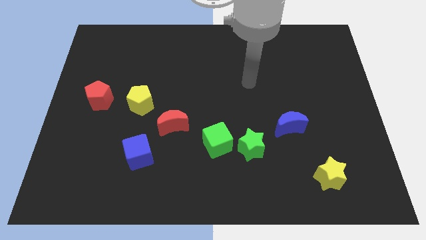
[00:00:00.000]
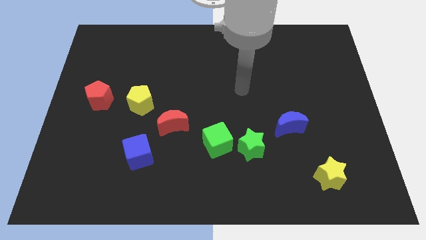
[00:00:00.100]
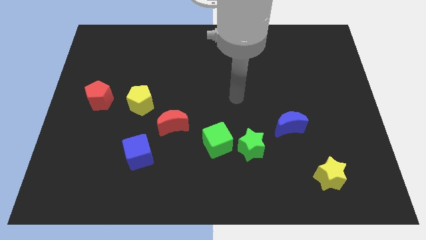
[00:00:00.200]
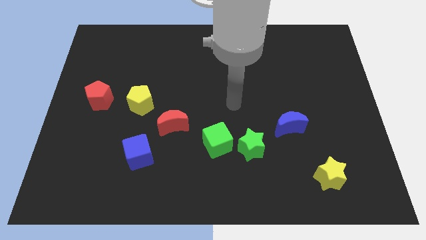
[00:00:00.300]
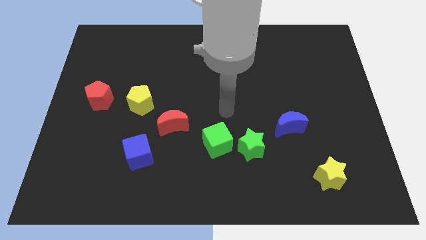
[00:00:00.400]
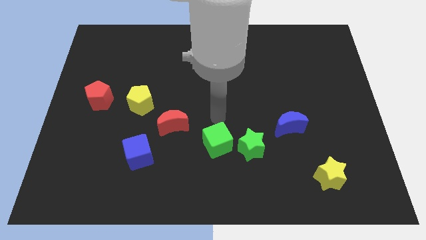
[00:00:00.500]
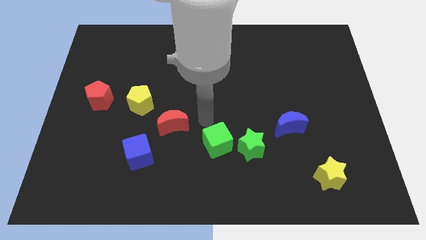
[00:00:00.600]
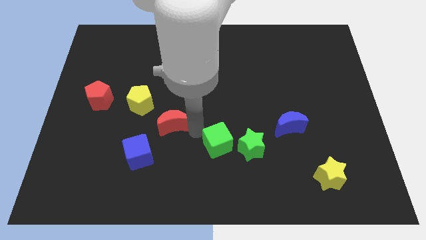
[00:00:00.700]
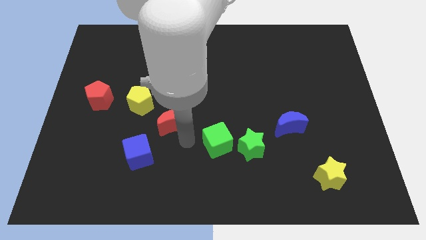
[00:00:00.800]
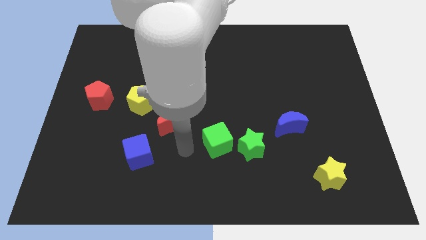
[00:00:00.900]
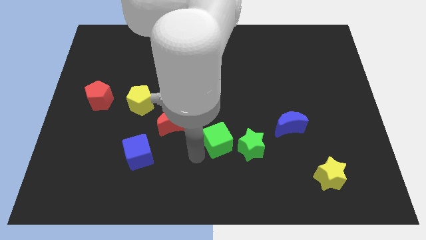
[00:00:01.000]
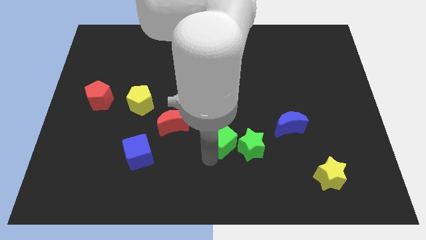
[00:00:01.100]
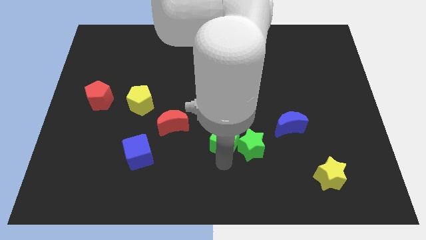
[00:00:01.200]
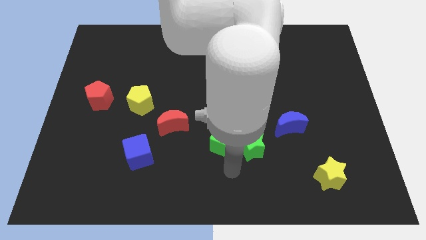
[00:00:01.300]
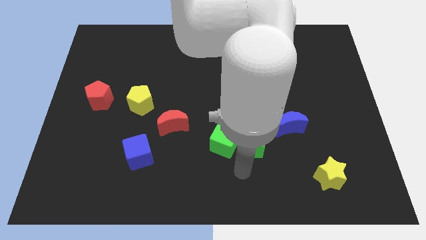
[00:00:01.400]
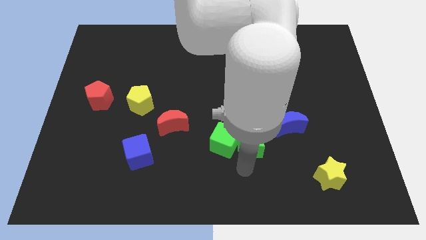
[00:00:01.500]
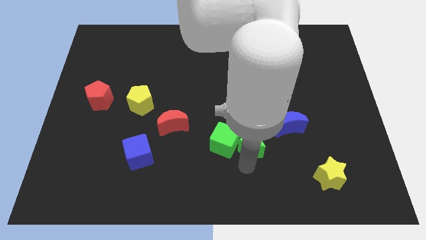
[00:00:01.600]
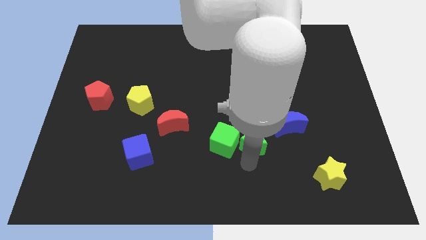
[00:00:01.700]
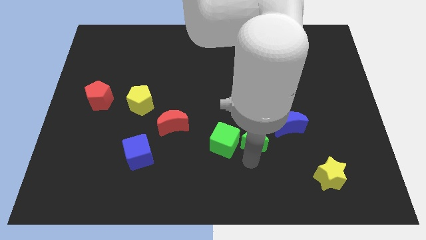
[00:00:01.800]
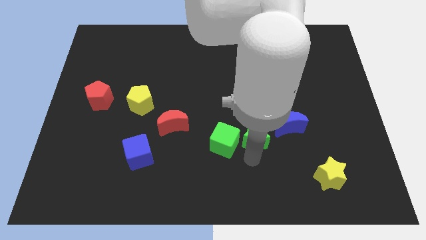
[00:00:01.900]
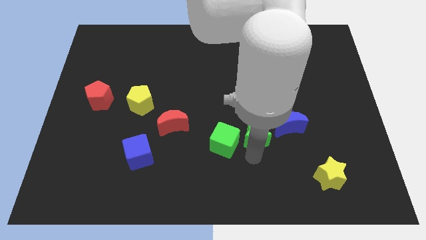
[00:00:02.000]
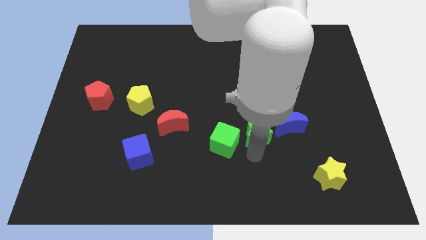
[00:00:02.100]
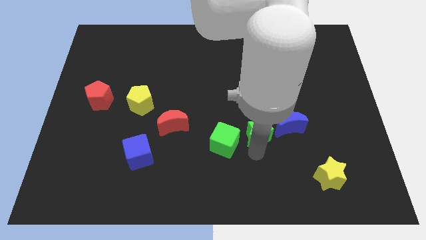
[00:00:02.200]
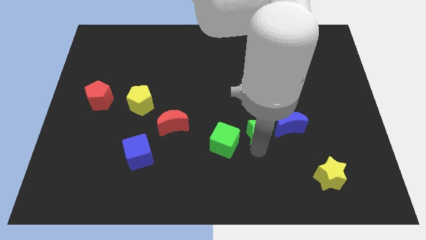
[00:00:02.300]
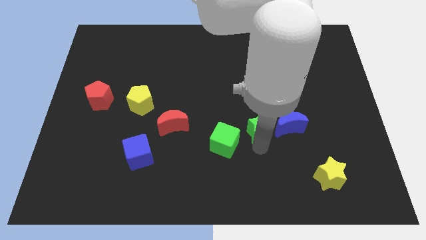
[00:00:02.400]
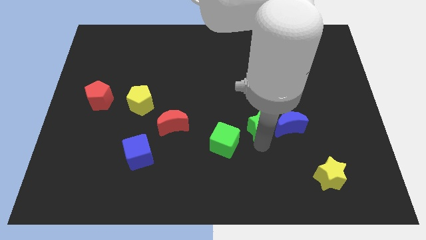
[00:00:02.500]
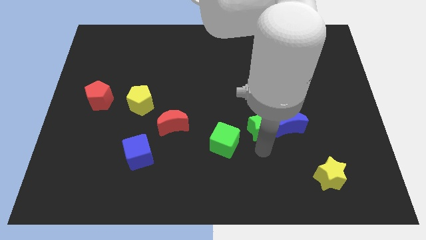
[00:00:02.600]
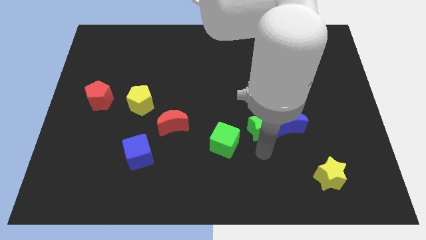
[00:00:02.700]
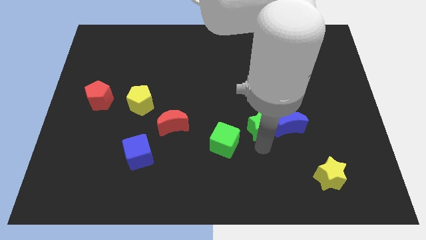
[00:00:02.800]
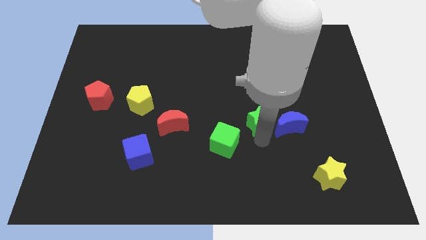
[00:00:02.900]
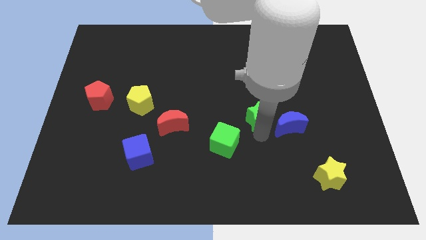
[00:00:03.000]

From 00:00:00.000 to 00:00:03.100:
move the green star up a little bit

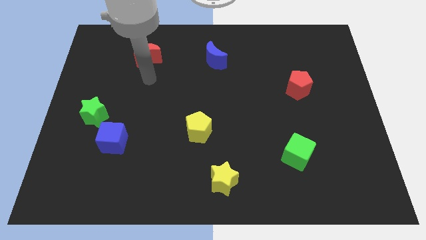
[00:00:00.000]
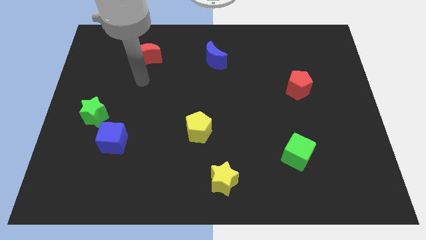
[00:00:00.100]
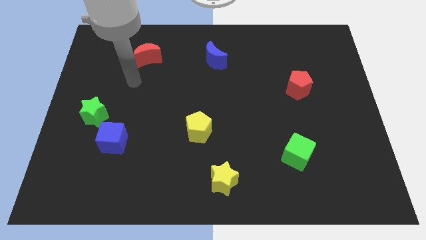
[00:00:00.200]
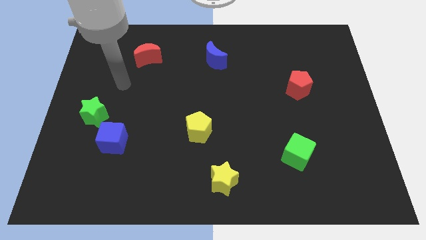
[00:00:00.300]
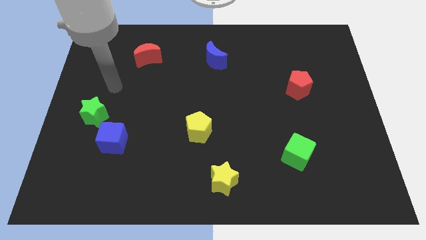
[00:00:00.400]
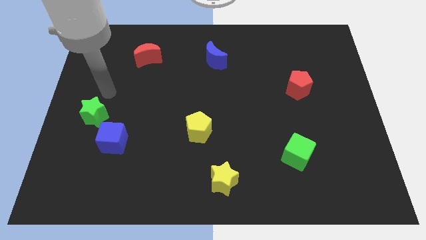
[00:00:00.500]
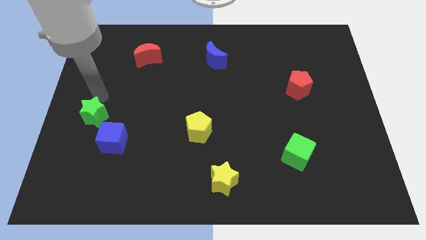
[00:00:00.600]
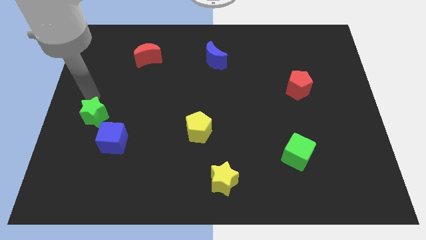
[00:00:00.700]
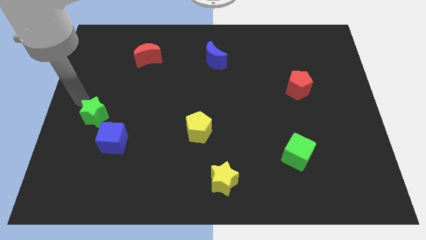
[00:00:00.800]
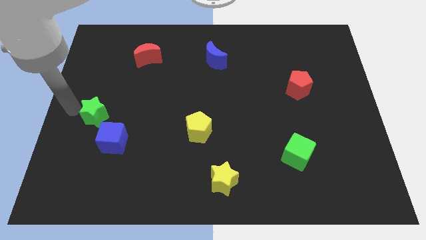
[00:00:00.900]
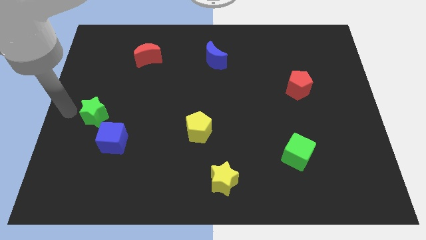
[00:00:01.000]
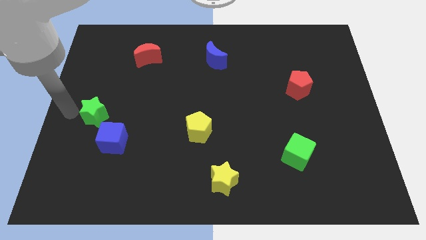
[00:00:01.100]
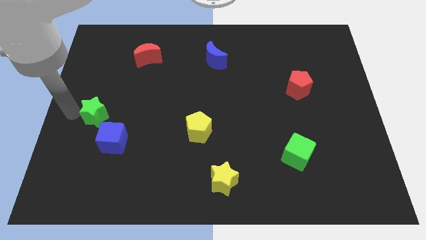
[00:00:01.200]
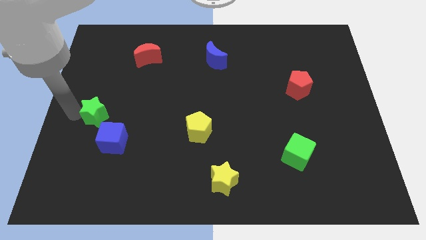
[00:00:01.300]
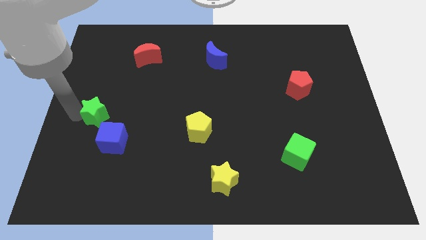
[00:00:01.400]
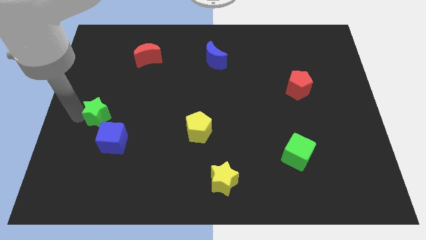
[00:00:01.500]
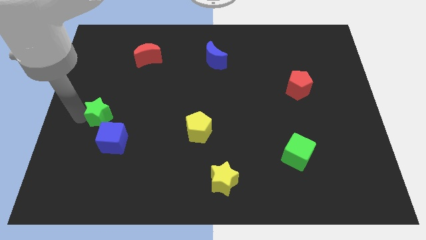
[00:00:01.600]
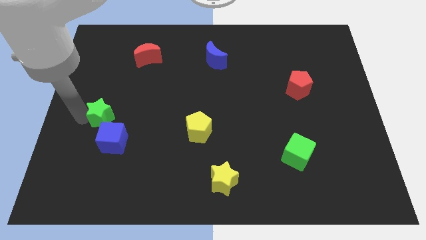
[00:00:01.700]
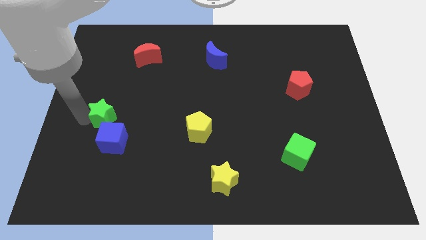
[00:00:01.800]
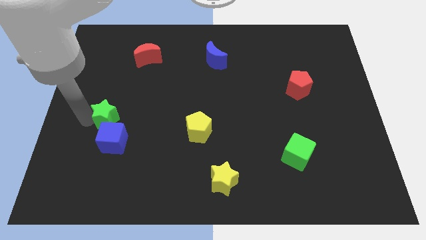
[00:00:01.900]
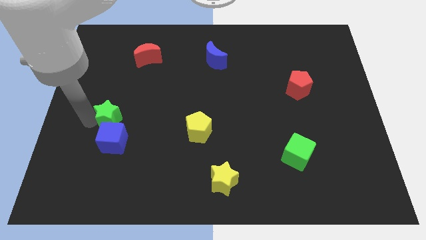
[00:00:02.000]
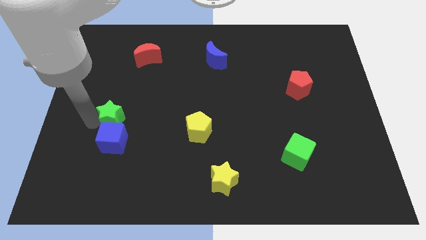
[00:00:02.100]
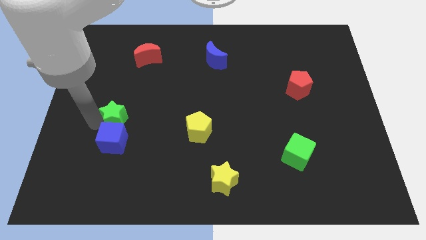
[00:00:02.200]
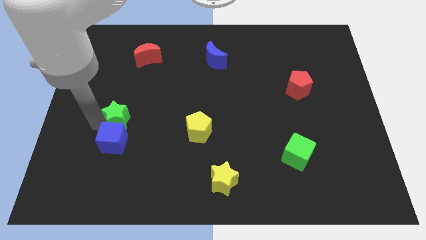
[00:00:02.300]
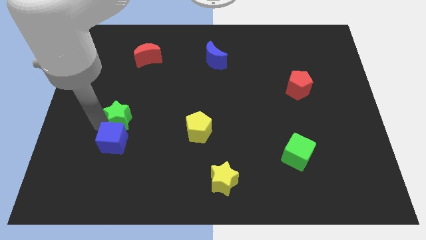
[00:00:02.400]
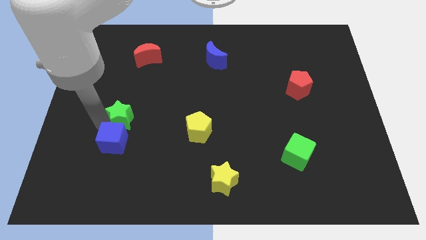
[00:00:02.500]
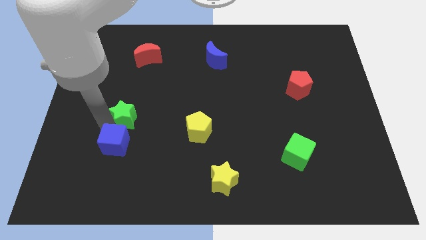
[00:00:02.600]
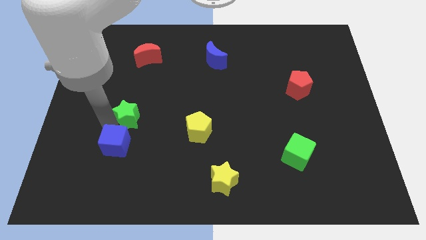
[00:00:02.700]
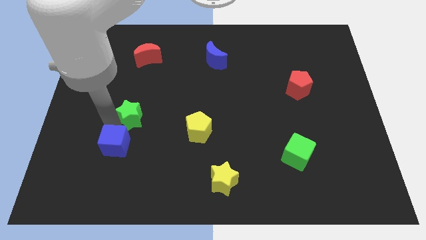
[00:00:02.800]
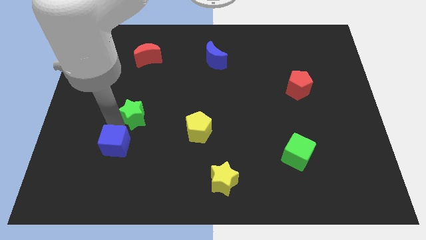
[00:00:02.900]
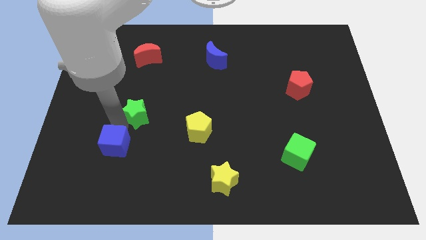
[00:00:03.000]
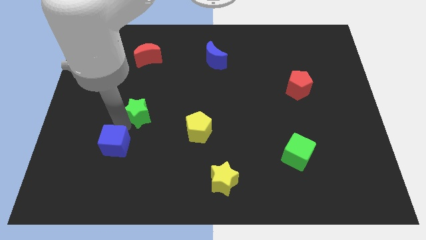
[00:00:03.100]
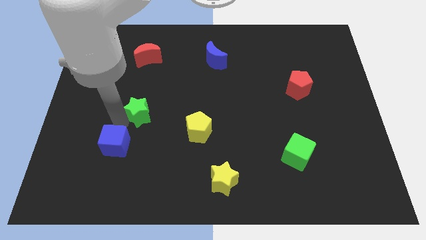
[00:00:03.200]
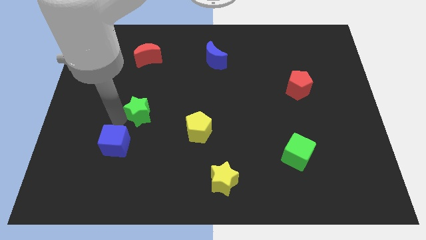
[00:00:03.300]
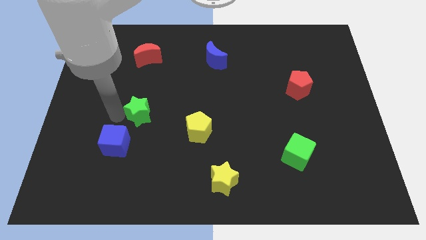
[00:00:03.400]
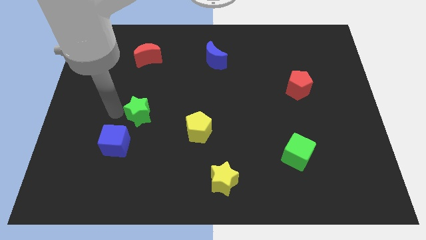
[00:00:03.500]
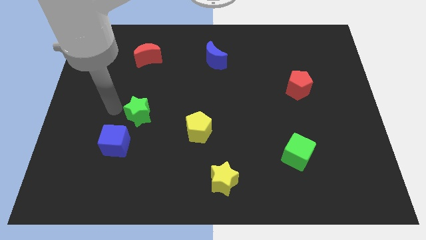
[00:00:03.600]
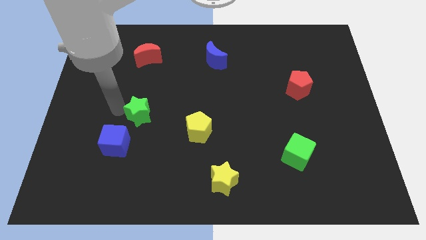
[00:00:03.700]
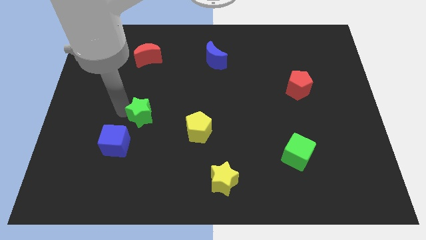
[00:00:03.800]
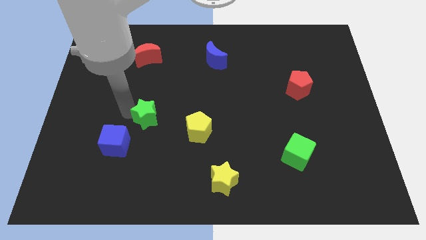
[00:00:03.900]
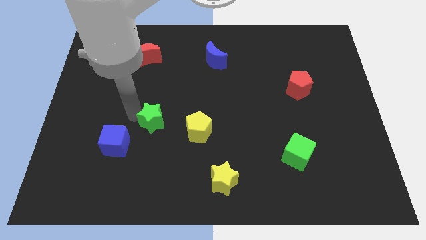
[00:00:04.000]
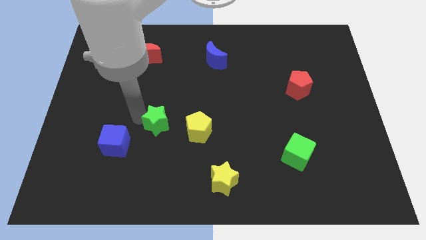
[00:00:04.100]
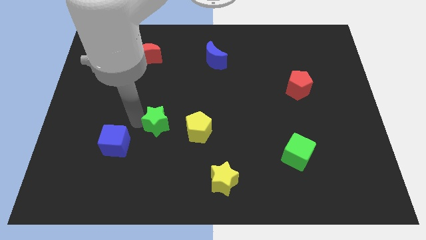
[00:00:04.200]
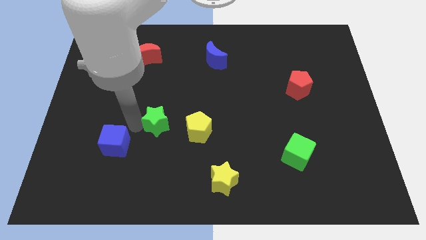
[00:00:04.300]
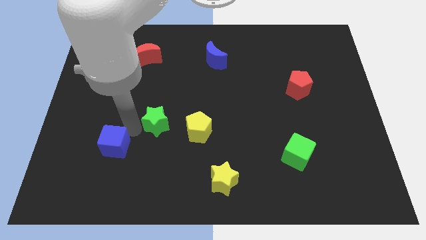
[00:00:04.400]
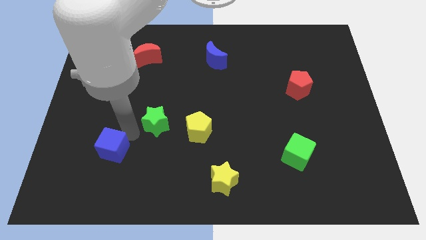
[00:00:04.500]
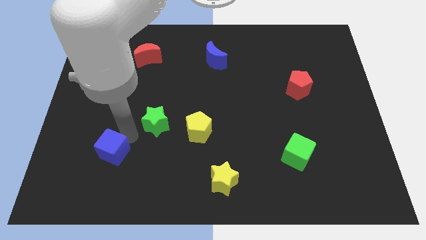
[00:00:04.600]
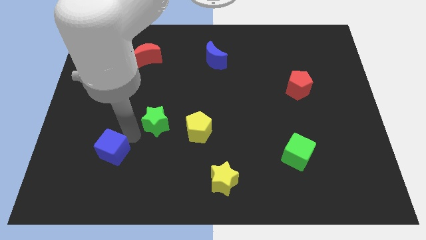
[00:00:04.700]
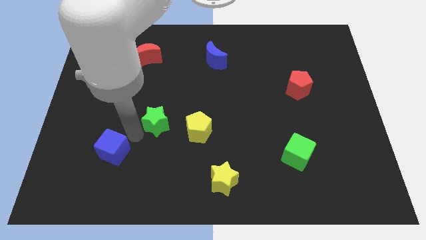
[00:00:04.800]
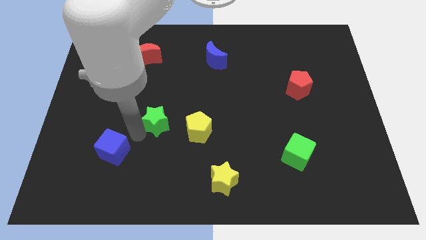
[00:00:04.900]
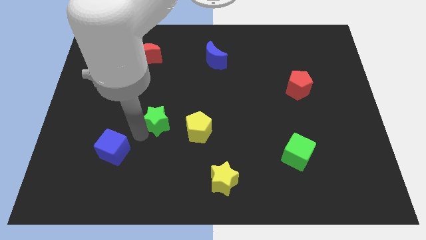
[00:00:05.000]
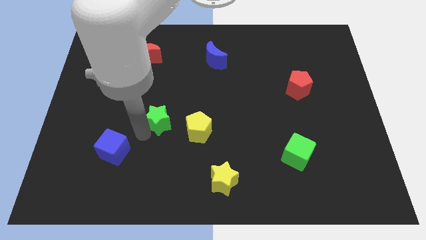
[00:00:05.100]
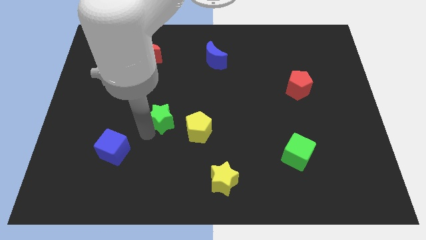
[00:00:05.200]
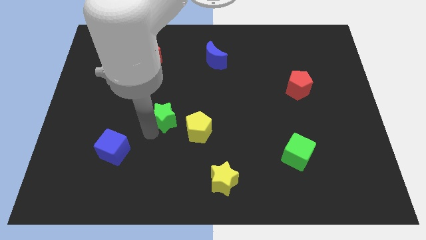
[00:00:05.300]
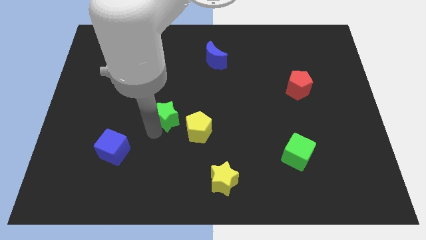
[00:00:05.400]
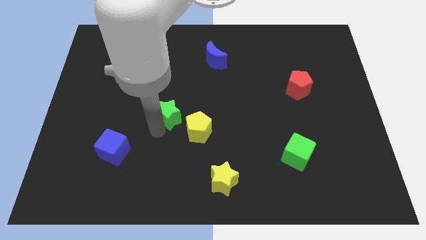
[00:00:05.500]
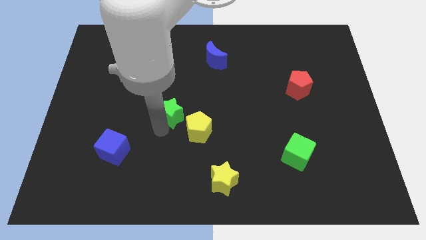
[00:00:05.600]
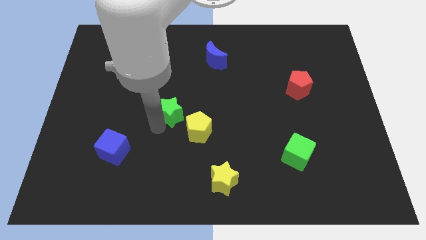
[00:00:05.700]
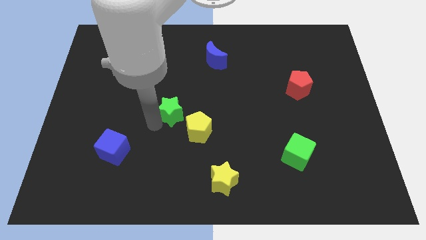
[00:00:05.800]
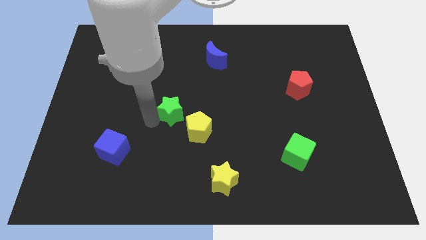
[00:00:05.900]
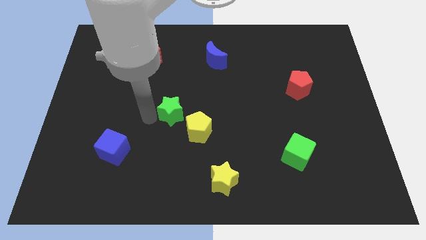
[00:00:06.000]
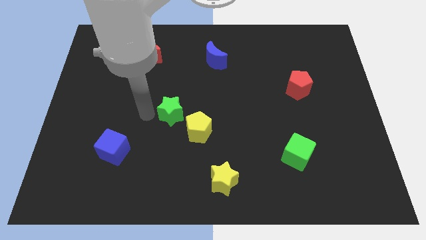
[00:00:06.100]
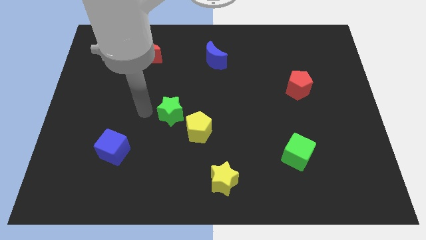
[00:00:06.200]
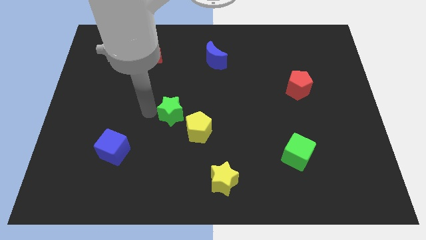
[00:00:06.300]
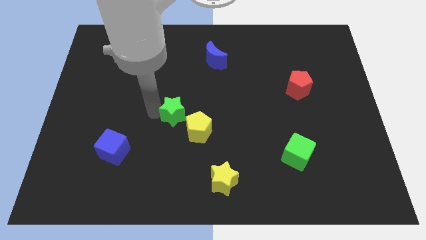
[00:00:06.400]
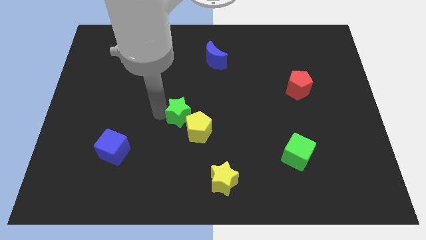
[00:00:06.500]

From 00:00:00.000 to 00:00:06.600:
move the green star to the right
